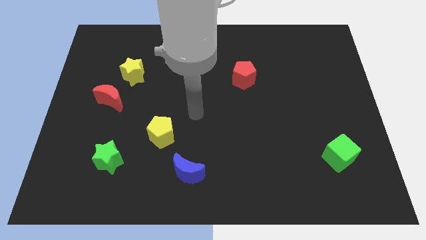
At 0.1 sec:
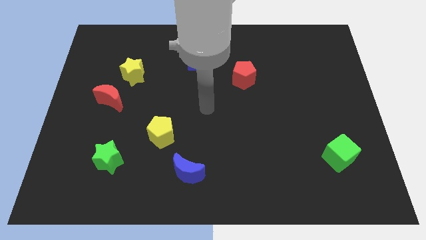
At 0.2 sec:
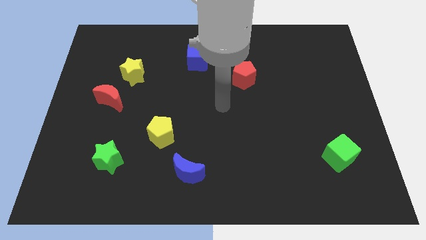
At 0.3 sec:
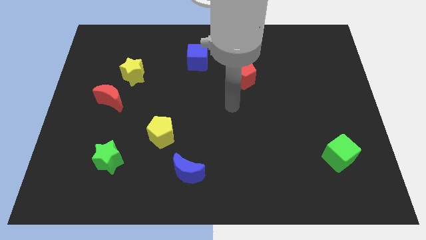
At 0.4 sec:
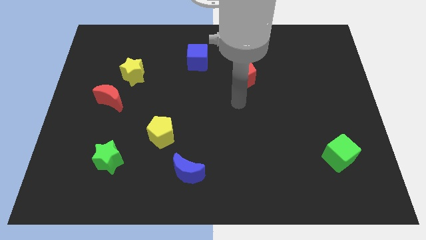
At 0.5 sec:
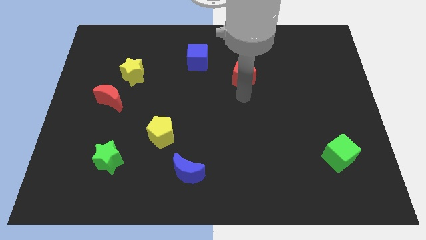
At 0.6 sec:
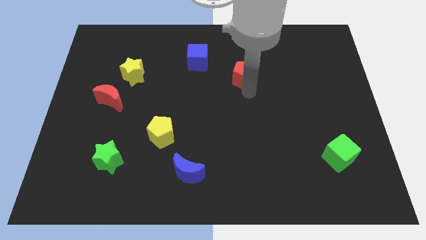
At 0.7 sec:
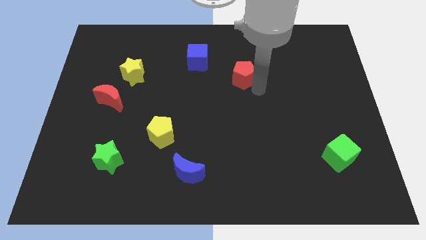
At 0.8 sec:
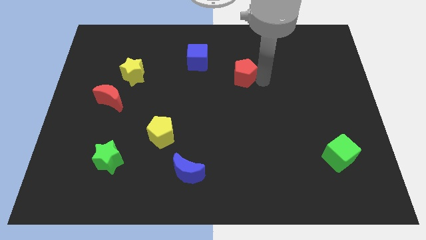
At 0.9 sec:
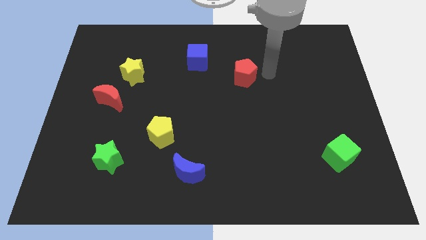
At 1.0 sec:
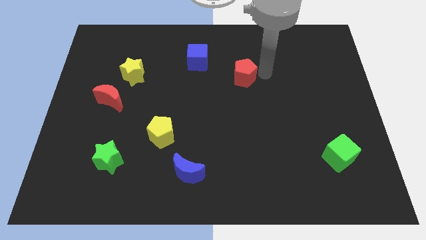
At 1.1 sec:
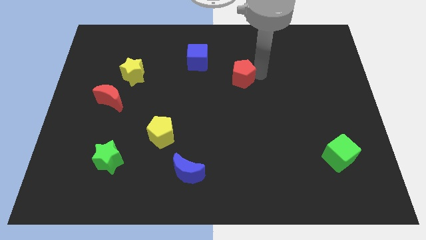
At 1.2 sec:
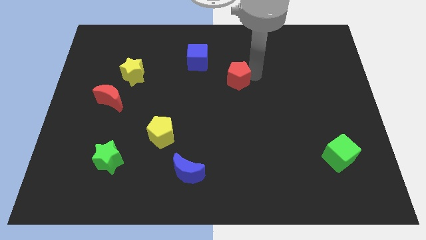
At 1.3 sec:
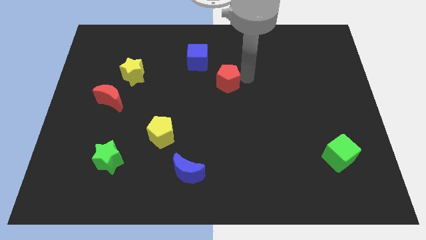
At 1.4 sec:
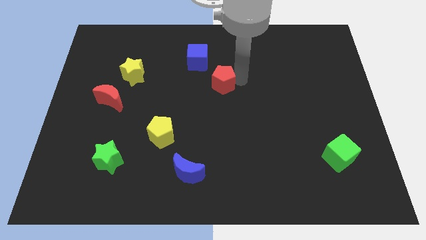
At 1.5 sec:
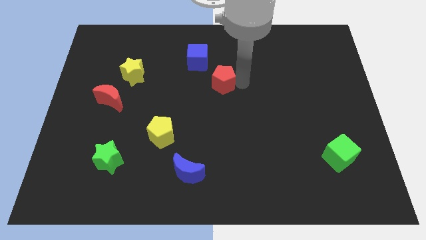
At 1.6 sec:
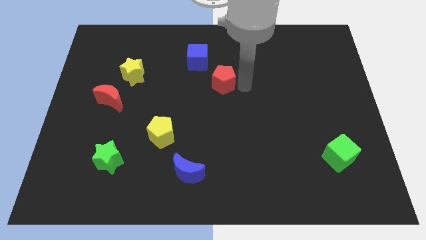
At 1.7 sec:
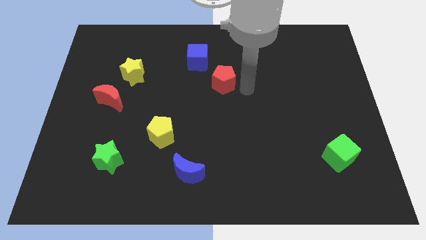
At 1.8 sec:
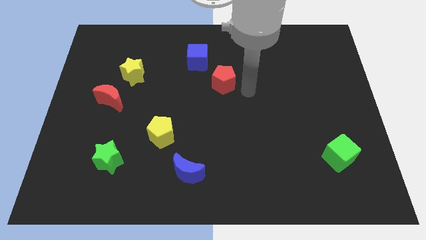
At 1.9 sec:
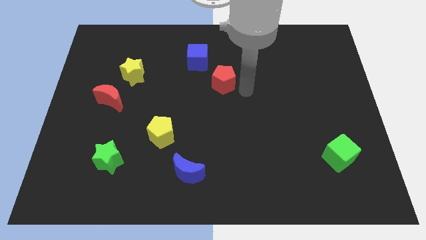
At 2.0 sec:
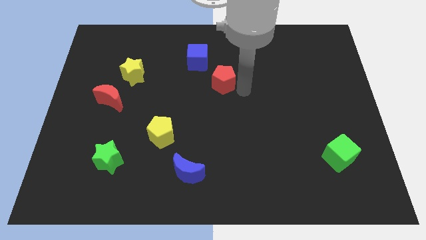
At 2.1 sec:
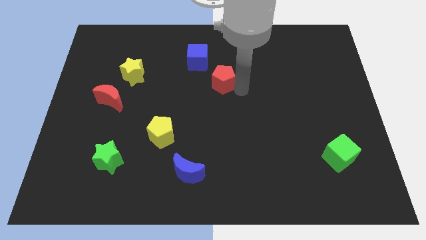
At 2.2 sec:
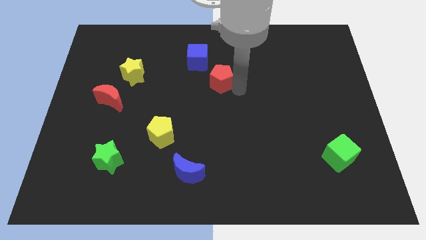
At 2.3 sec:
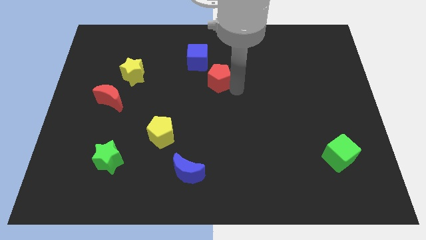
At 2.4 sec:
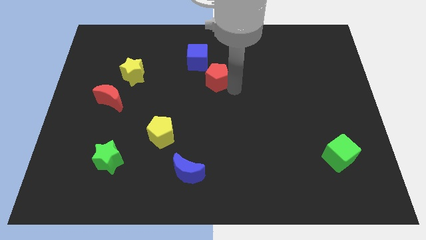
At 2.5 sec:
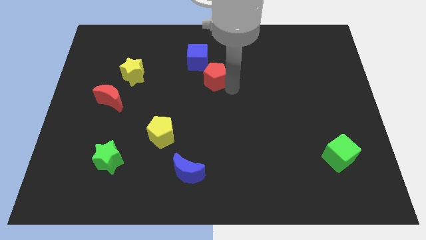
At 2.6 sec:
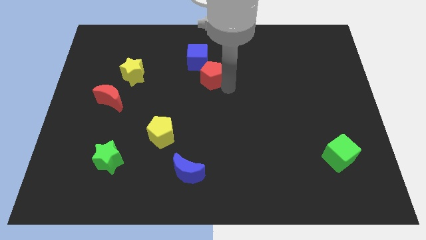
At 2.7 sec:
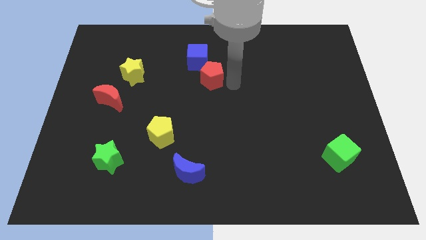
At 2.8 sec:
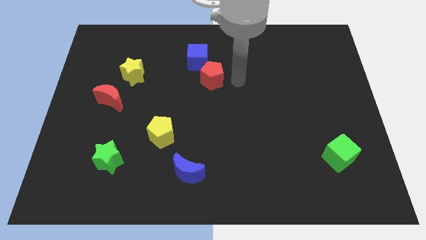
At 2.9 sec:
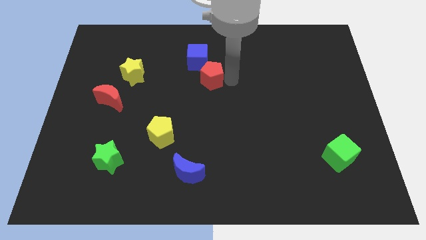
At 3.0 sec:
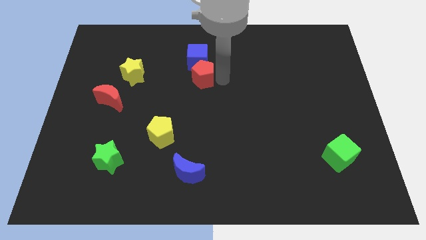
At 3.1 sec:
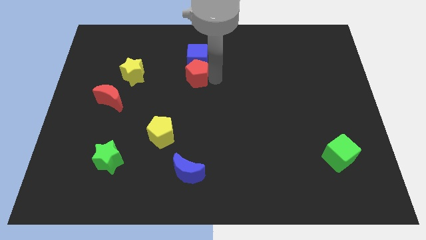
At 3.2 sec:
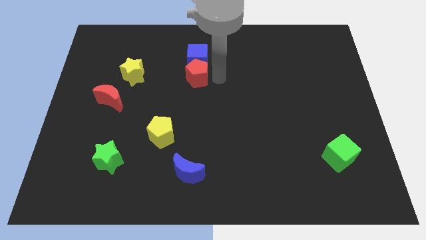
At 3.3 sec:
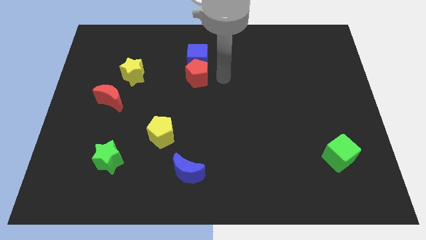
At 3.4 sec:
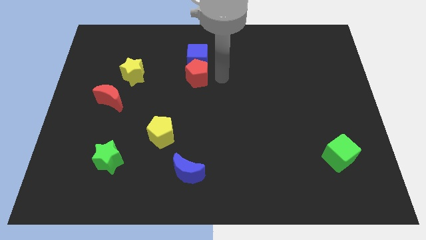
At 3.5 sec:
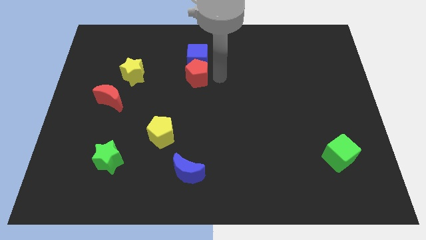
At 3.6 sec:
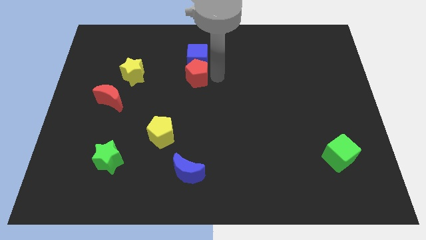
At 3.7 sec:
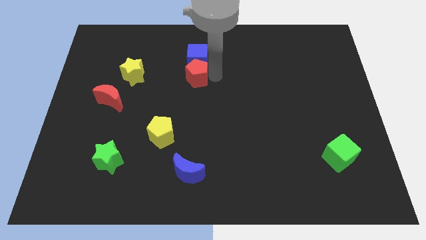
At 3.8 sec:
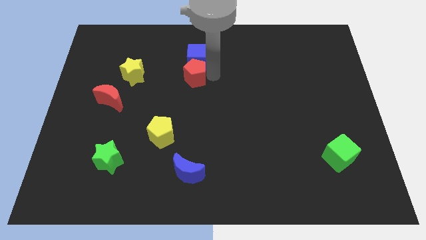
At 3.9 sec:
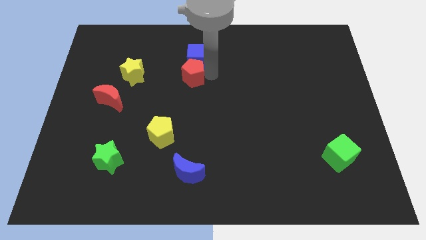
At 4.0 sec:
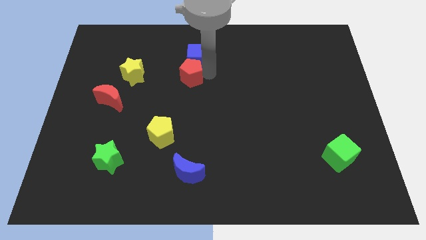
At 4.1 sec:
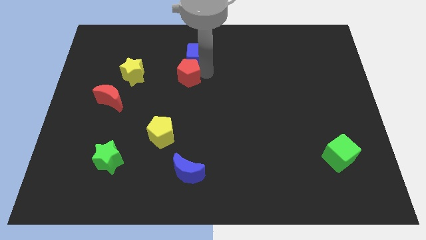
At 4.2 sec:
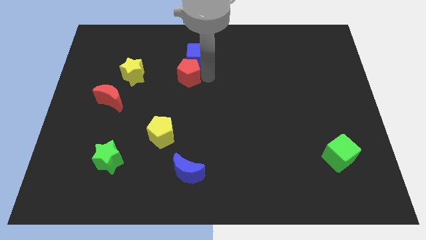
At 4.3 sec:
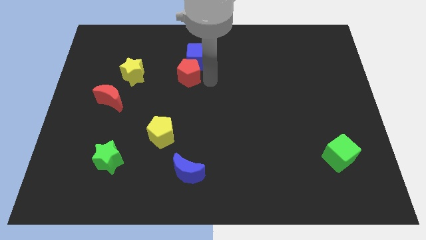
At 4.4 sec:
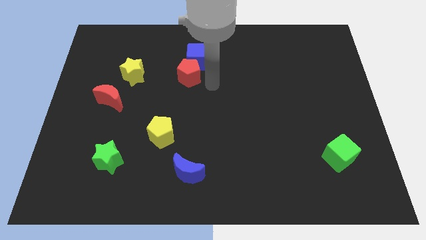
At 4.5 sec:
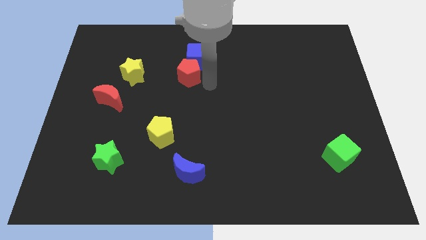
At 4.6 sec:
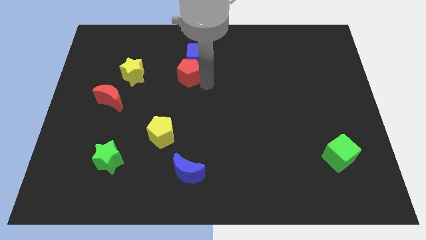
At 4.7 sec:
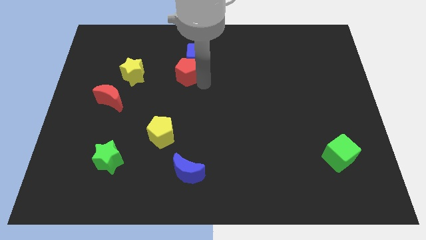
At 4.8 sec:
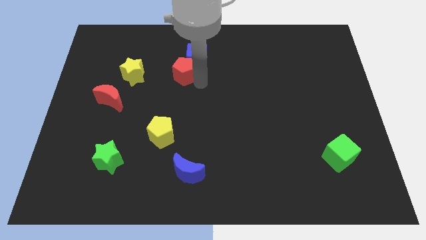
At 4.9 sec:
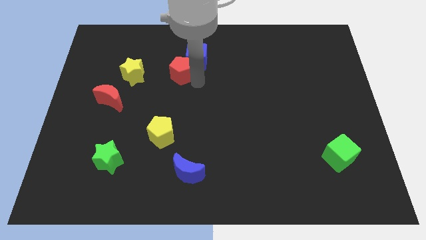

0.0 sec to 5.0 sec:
slide the red pentagon just left of the blue cube

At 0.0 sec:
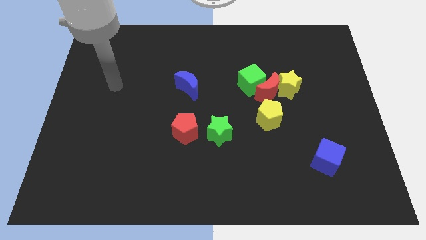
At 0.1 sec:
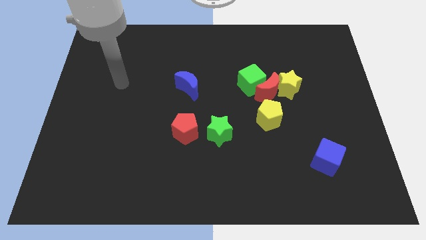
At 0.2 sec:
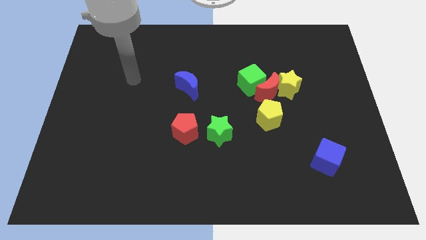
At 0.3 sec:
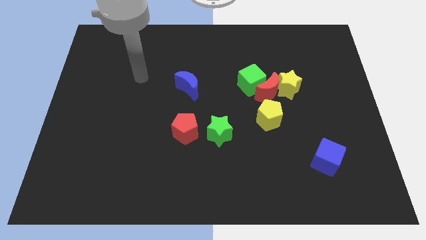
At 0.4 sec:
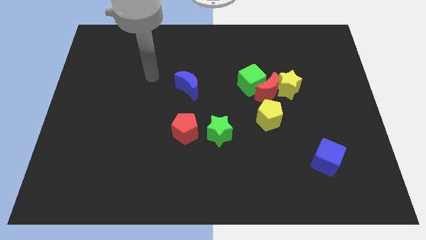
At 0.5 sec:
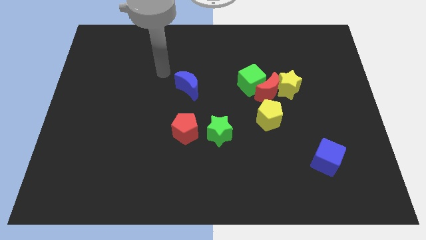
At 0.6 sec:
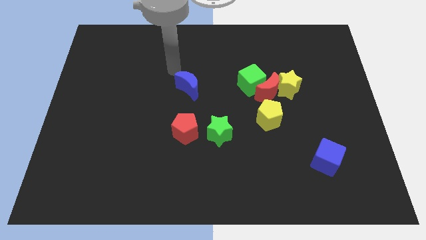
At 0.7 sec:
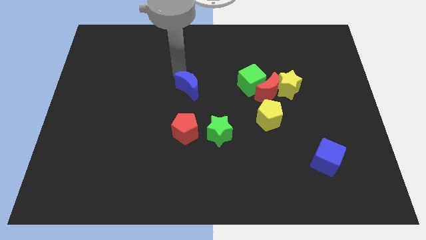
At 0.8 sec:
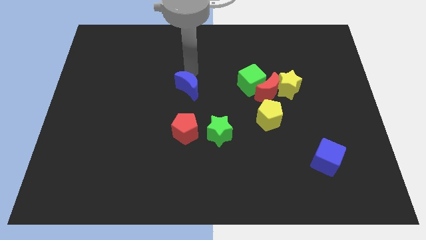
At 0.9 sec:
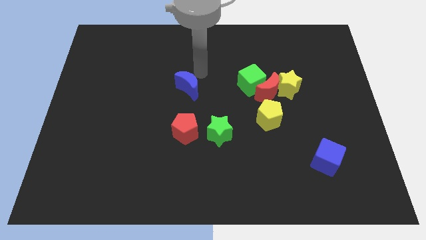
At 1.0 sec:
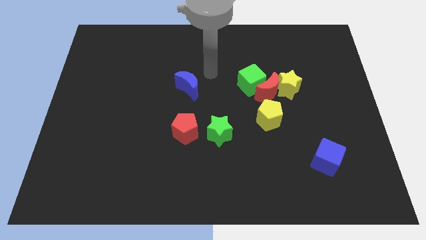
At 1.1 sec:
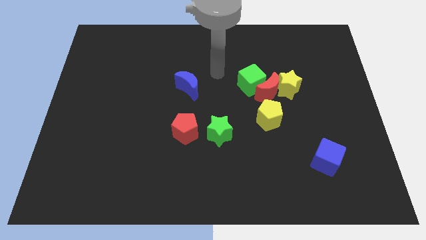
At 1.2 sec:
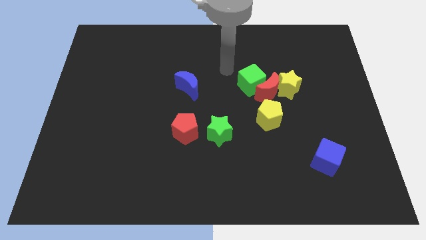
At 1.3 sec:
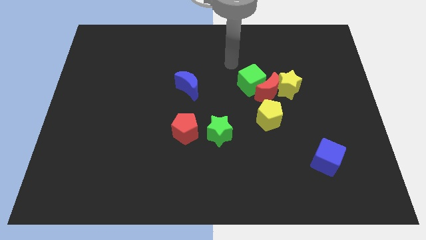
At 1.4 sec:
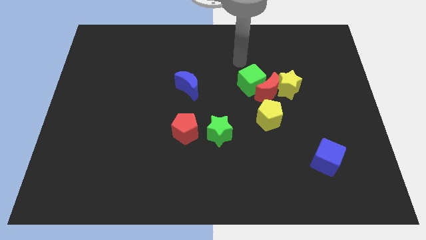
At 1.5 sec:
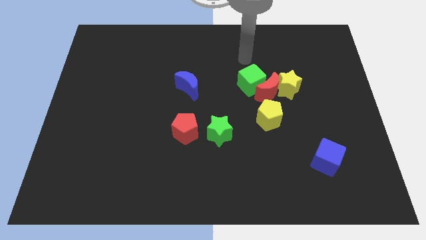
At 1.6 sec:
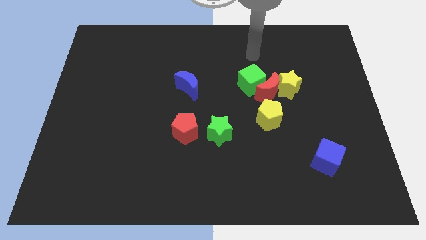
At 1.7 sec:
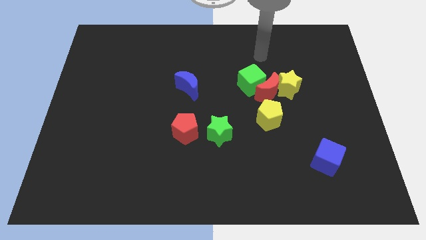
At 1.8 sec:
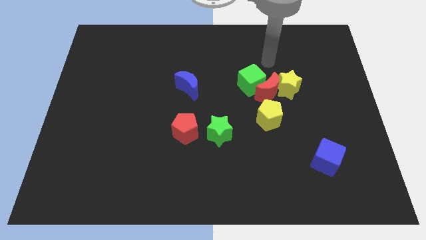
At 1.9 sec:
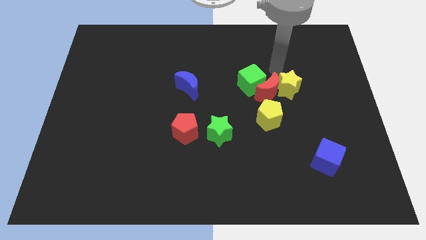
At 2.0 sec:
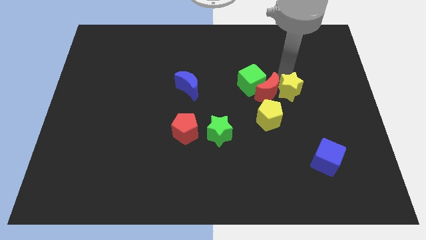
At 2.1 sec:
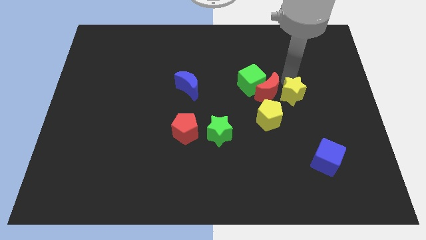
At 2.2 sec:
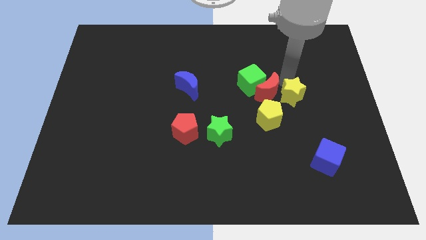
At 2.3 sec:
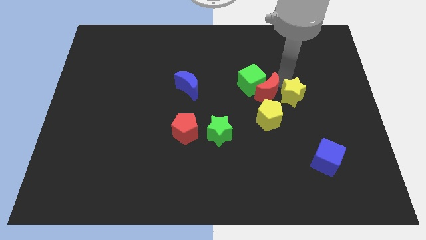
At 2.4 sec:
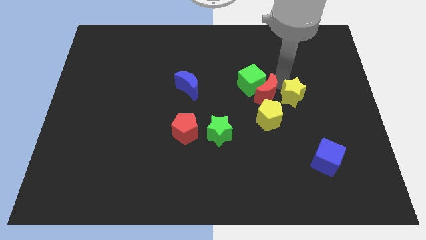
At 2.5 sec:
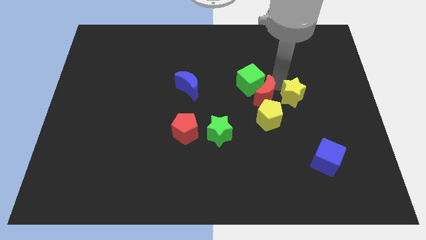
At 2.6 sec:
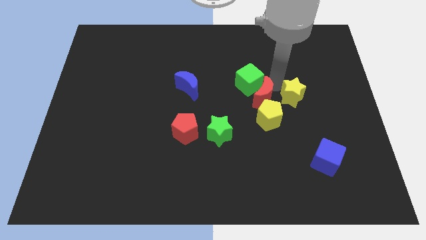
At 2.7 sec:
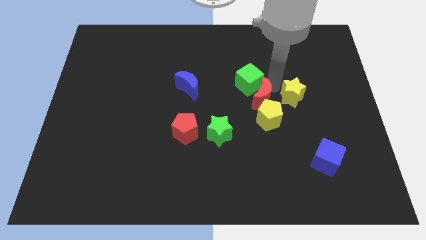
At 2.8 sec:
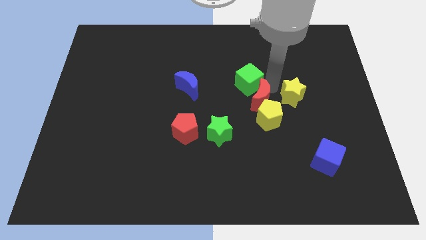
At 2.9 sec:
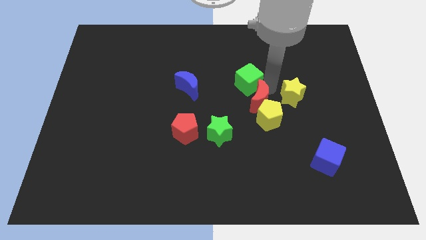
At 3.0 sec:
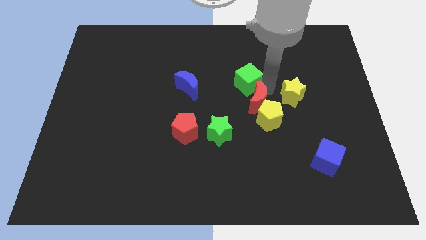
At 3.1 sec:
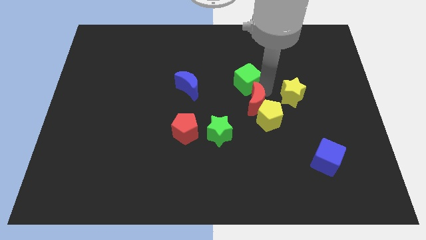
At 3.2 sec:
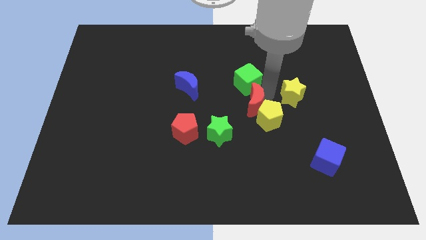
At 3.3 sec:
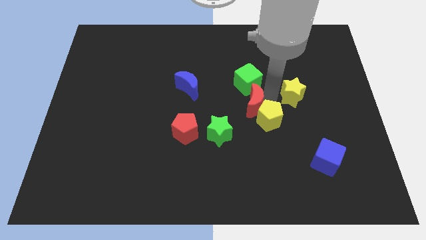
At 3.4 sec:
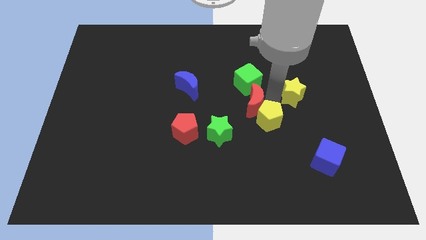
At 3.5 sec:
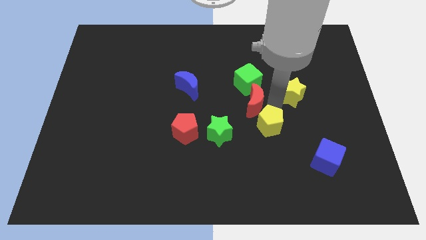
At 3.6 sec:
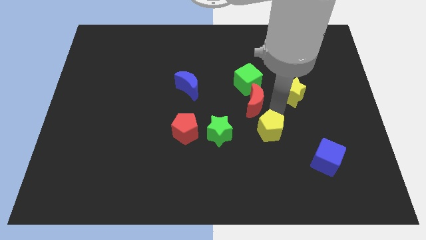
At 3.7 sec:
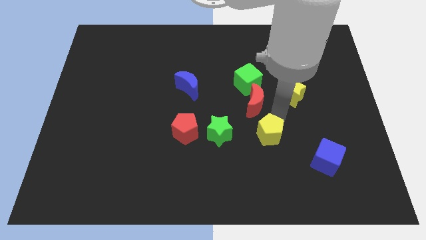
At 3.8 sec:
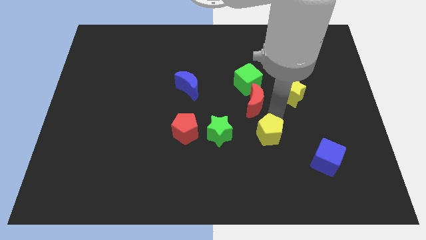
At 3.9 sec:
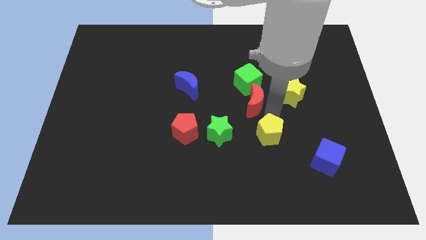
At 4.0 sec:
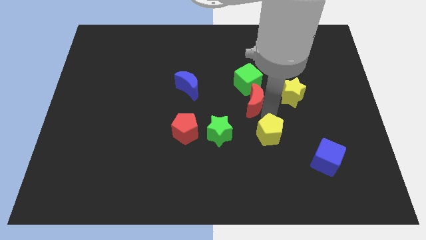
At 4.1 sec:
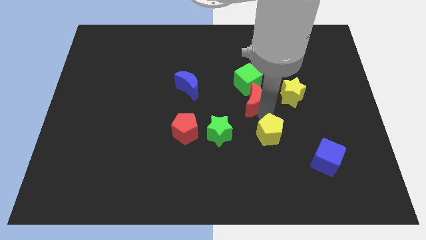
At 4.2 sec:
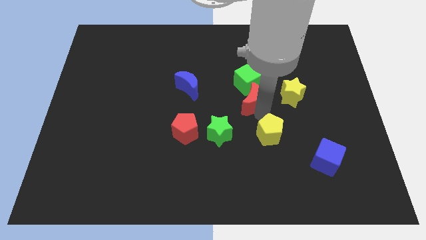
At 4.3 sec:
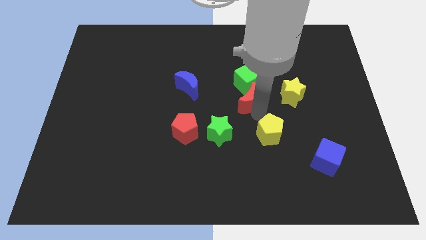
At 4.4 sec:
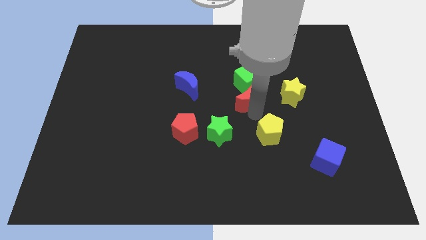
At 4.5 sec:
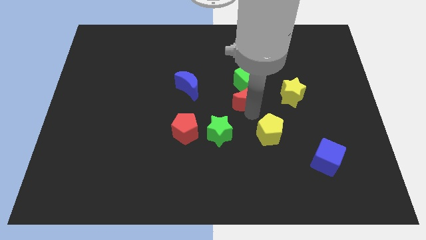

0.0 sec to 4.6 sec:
push the red moon right of the blue moon
